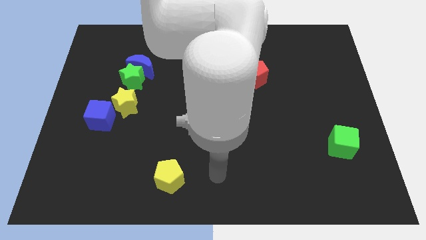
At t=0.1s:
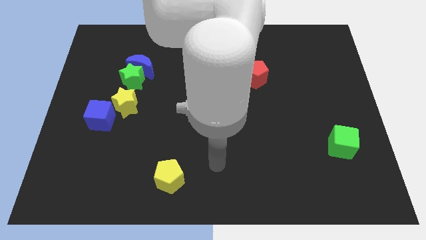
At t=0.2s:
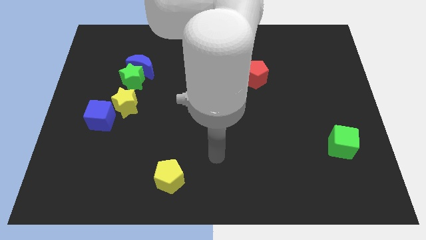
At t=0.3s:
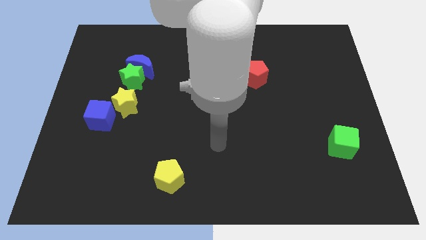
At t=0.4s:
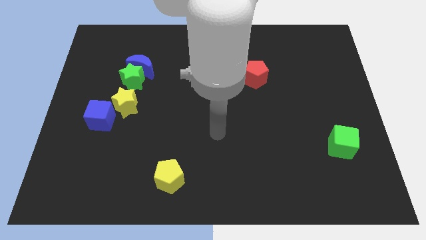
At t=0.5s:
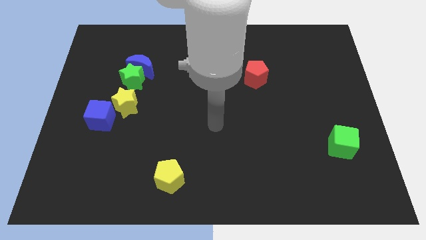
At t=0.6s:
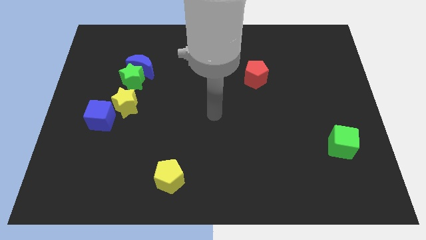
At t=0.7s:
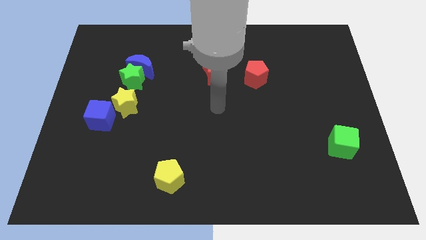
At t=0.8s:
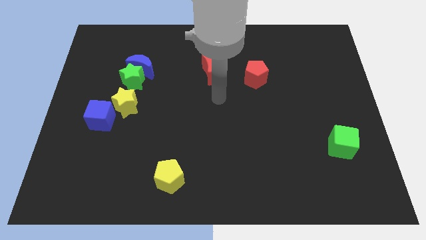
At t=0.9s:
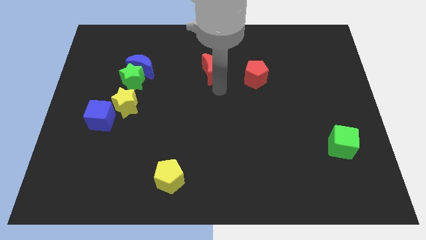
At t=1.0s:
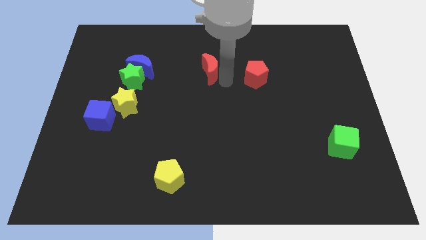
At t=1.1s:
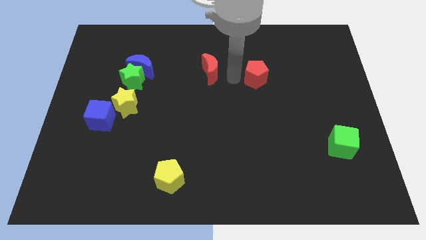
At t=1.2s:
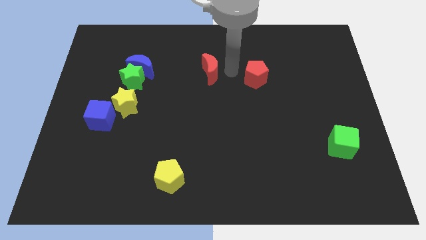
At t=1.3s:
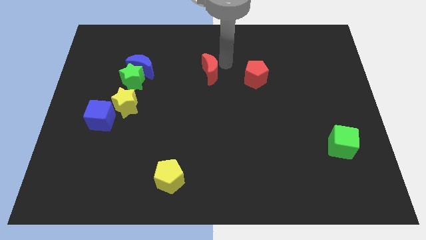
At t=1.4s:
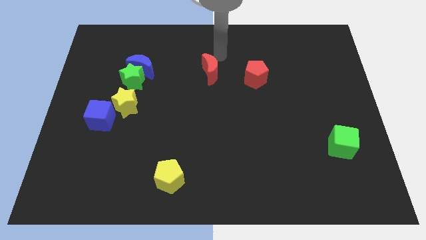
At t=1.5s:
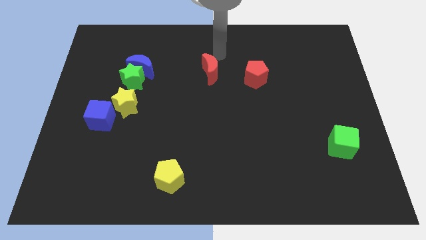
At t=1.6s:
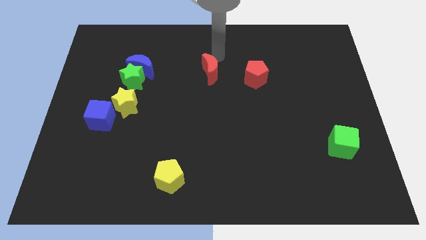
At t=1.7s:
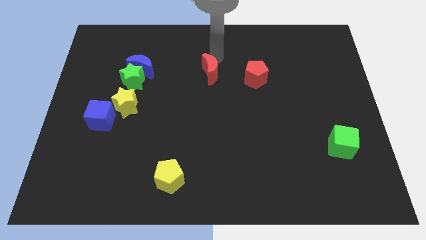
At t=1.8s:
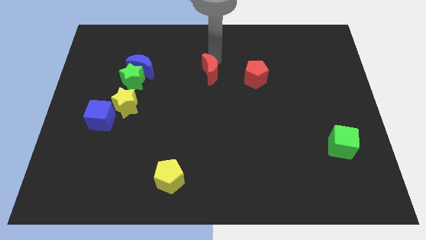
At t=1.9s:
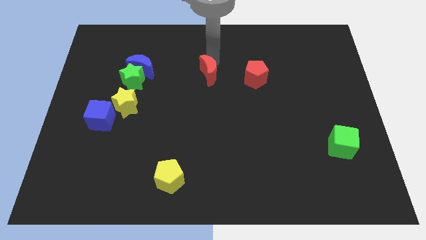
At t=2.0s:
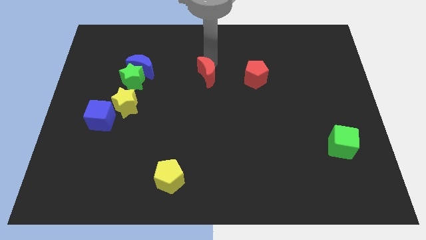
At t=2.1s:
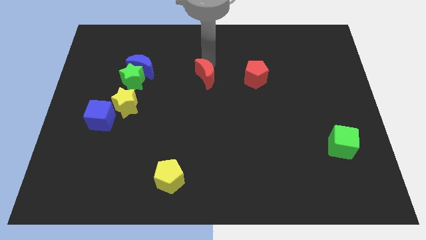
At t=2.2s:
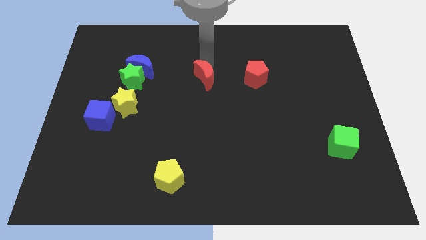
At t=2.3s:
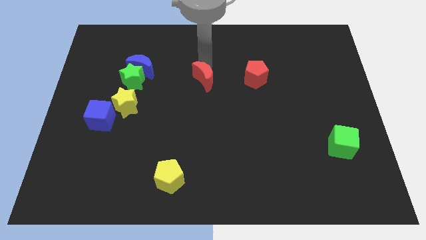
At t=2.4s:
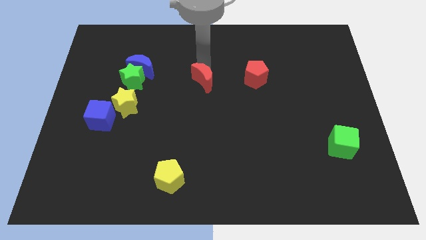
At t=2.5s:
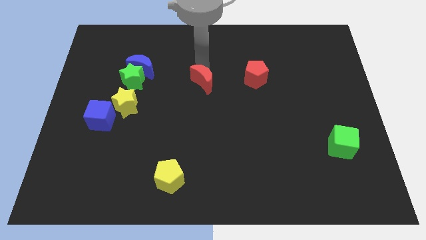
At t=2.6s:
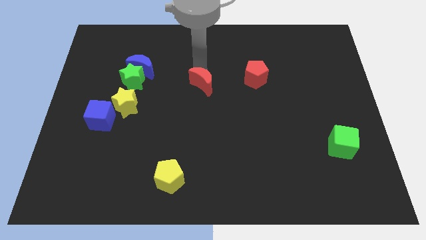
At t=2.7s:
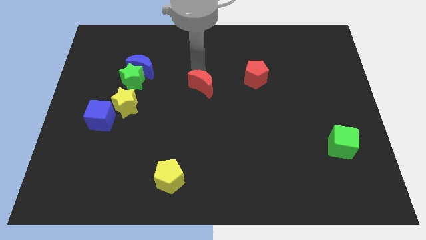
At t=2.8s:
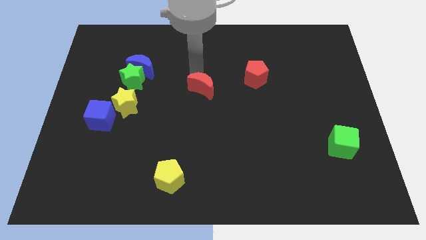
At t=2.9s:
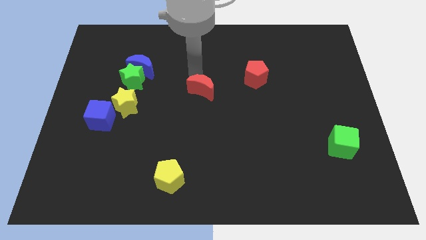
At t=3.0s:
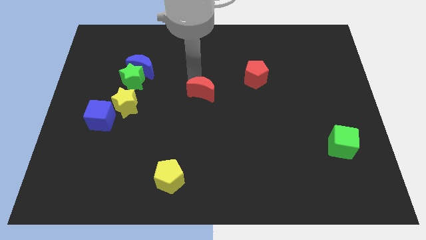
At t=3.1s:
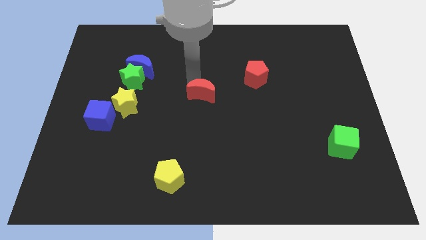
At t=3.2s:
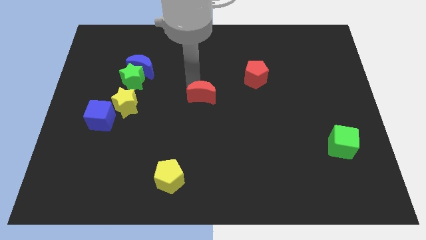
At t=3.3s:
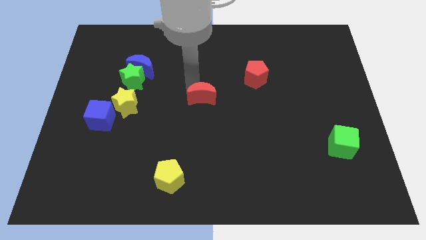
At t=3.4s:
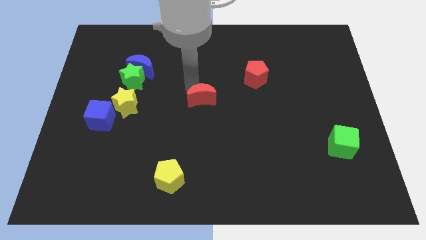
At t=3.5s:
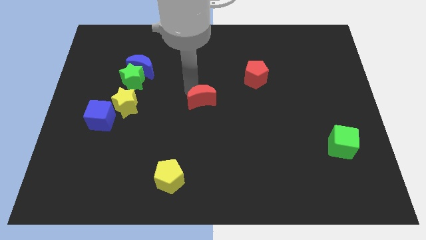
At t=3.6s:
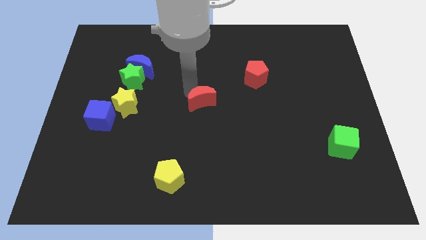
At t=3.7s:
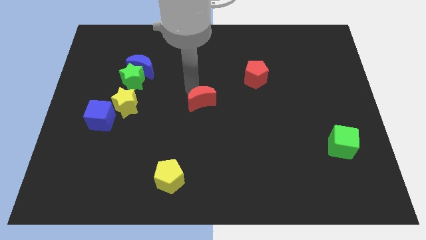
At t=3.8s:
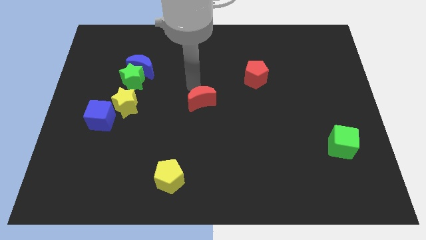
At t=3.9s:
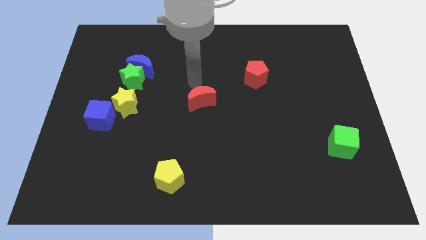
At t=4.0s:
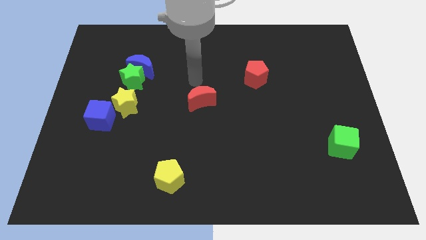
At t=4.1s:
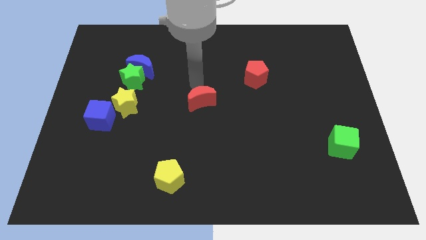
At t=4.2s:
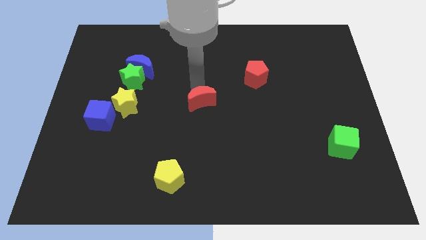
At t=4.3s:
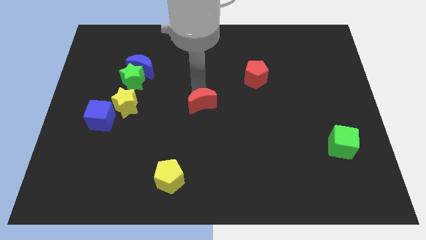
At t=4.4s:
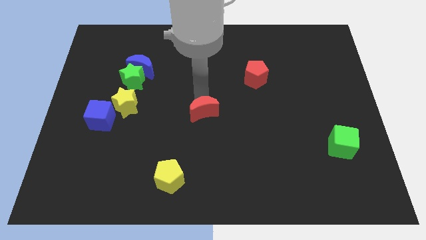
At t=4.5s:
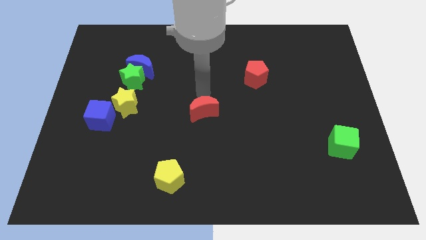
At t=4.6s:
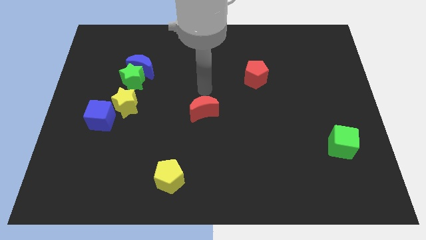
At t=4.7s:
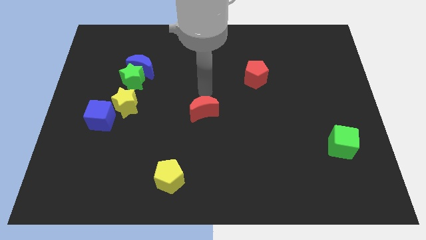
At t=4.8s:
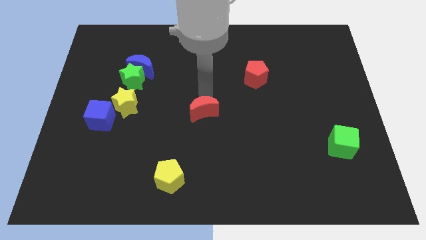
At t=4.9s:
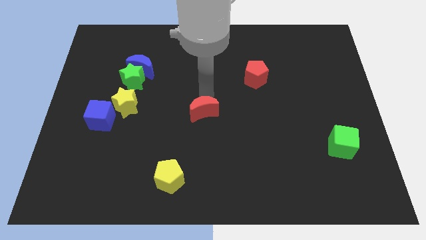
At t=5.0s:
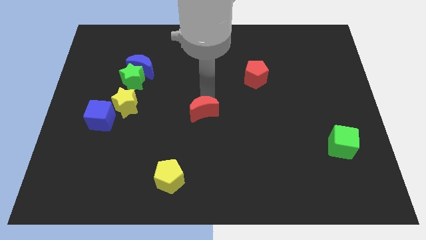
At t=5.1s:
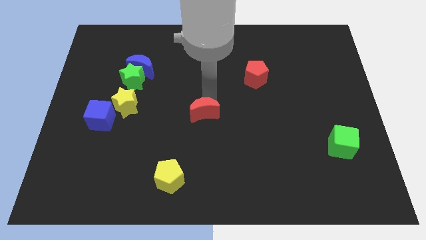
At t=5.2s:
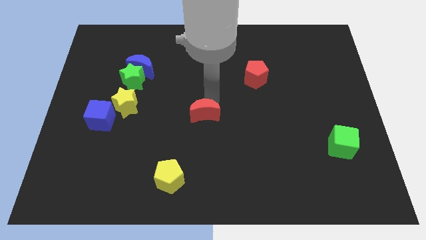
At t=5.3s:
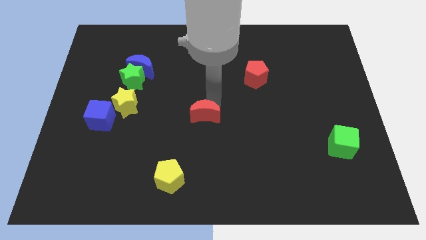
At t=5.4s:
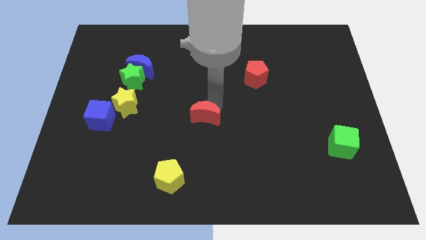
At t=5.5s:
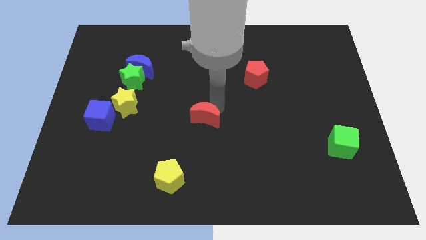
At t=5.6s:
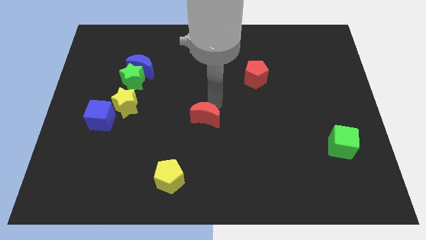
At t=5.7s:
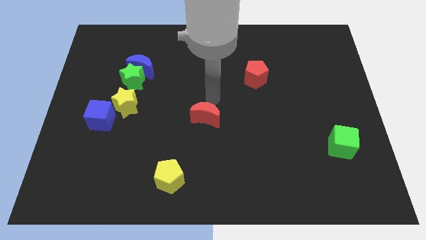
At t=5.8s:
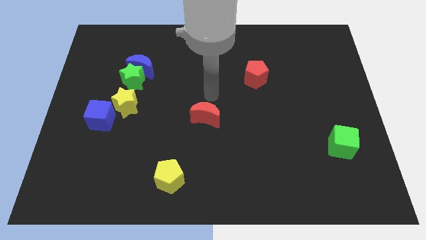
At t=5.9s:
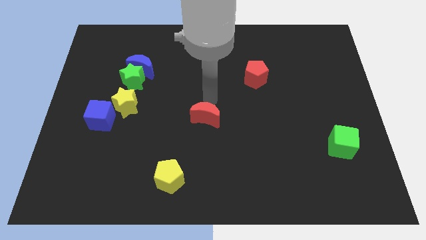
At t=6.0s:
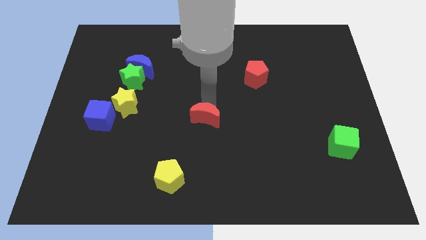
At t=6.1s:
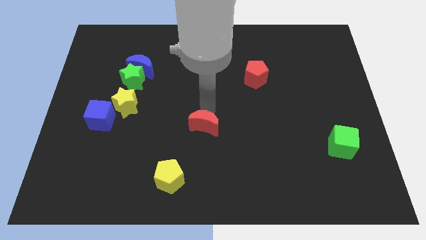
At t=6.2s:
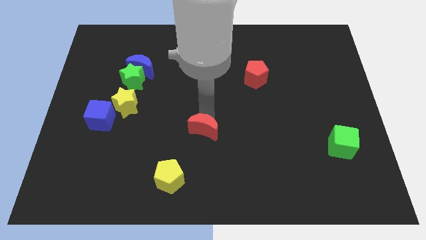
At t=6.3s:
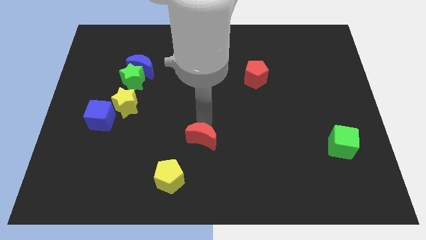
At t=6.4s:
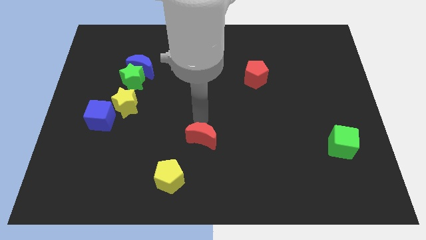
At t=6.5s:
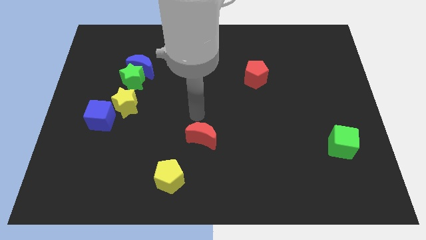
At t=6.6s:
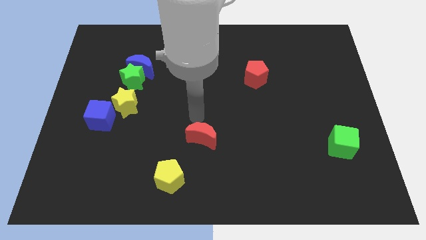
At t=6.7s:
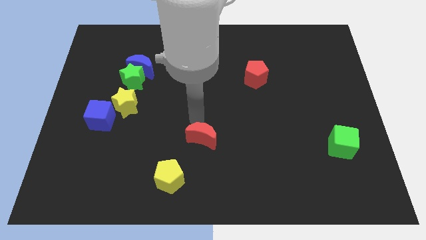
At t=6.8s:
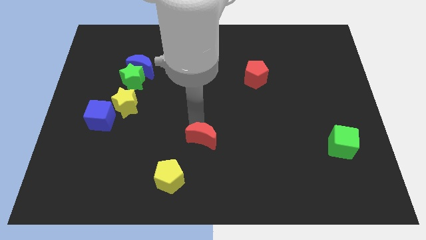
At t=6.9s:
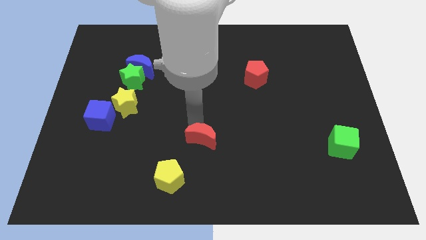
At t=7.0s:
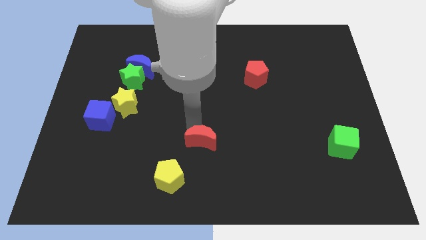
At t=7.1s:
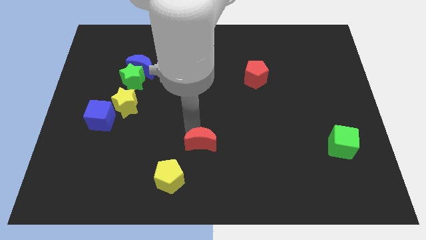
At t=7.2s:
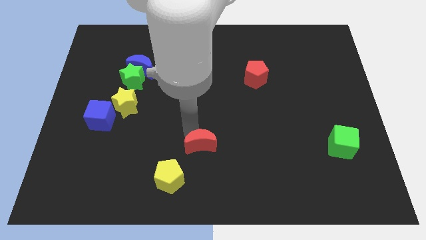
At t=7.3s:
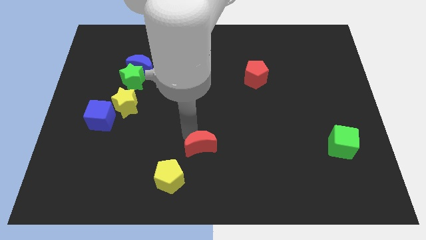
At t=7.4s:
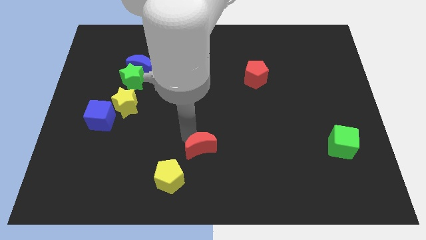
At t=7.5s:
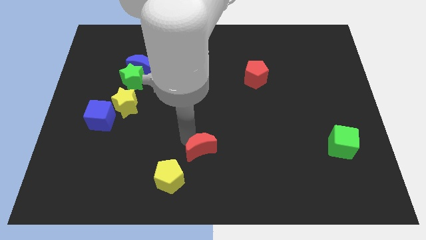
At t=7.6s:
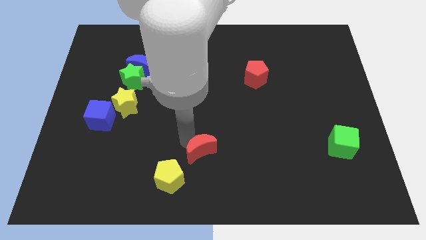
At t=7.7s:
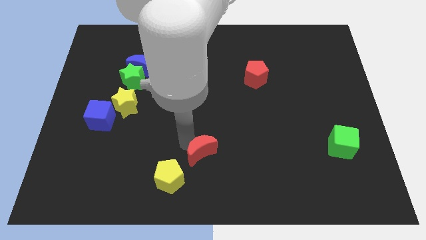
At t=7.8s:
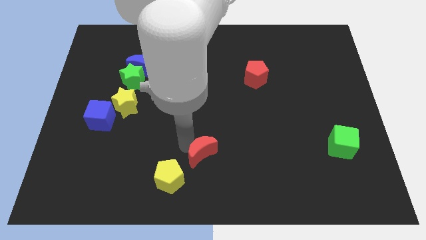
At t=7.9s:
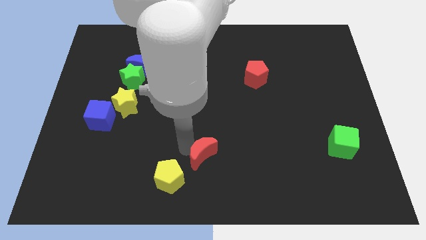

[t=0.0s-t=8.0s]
put the red moon to the bottom
